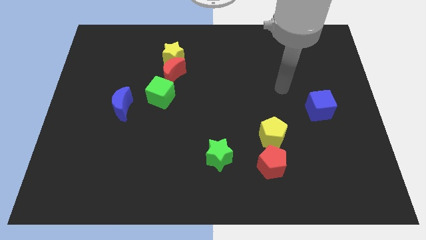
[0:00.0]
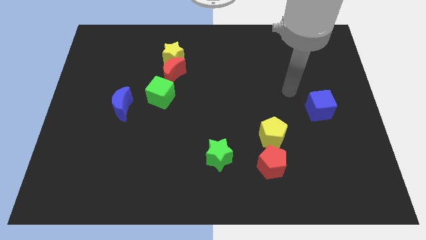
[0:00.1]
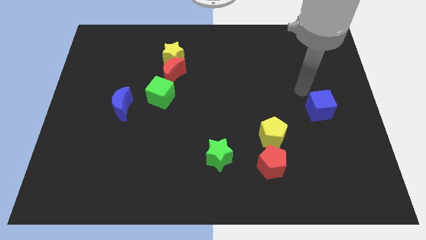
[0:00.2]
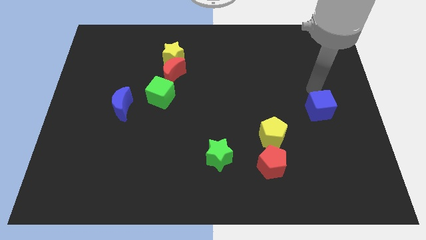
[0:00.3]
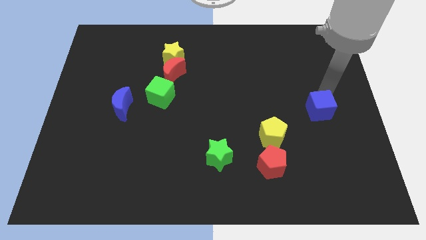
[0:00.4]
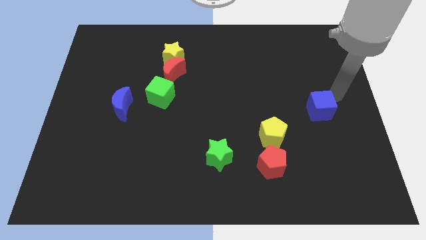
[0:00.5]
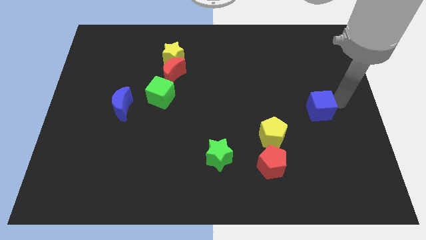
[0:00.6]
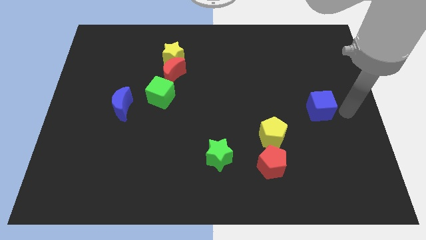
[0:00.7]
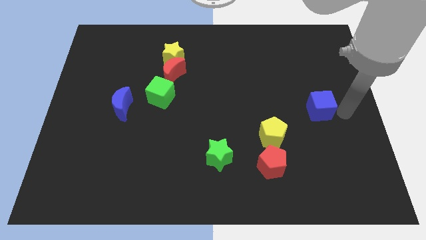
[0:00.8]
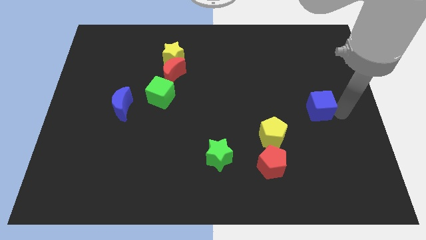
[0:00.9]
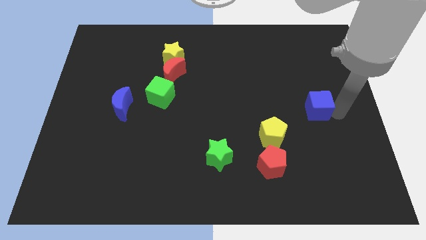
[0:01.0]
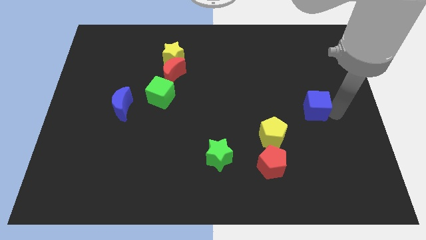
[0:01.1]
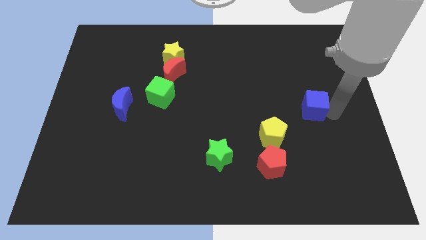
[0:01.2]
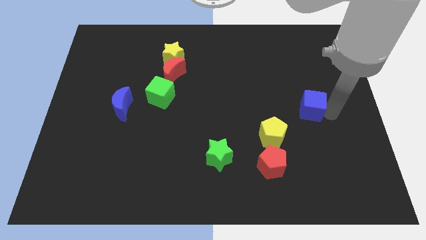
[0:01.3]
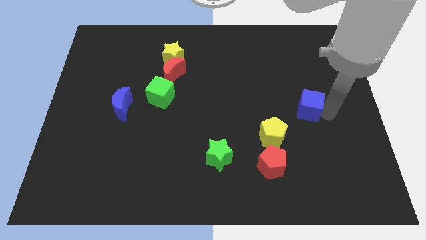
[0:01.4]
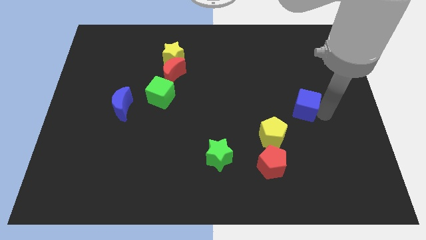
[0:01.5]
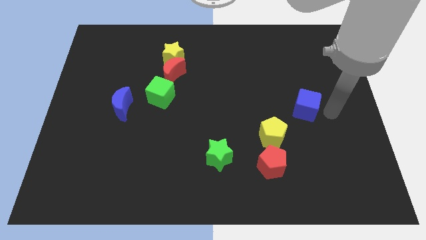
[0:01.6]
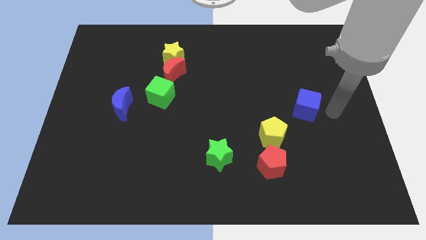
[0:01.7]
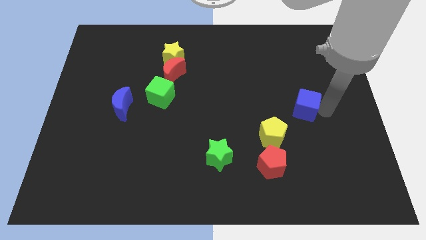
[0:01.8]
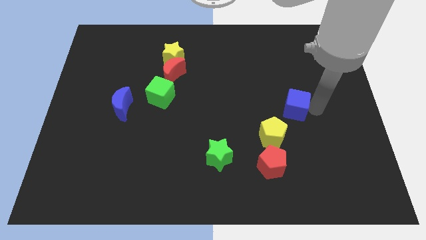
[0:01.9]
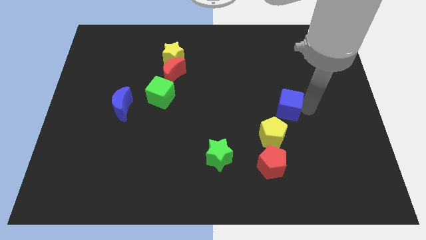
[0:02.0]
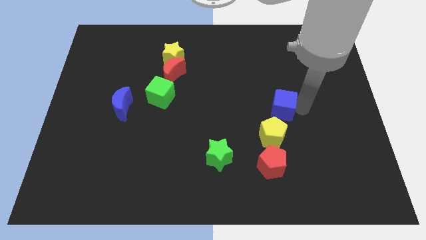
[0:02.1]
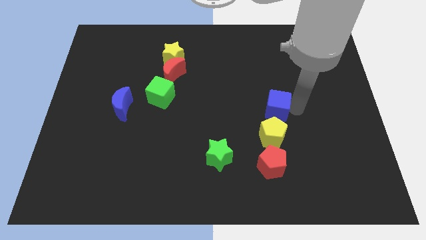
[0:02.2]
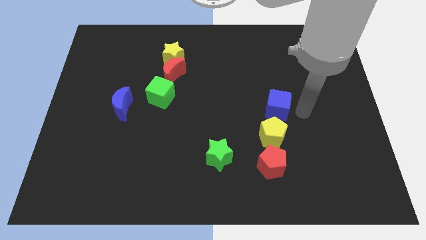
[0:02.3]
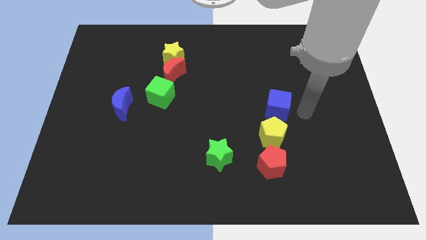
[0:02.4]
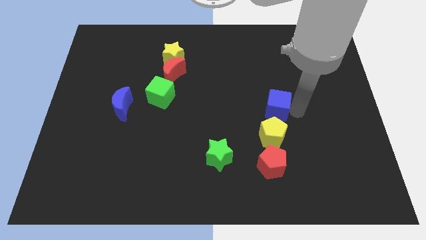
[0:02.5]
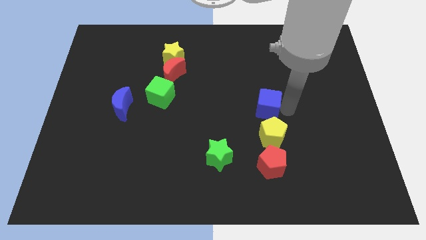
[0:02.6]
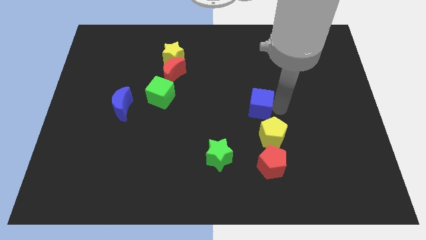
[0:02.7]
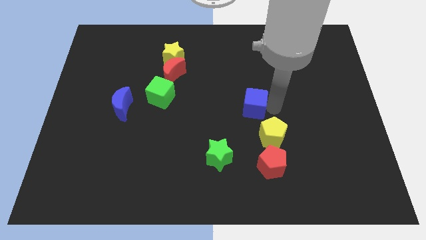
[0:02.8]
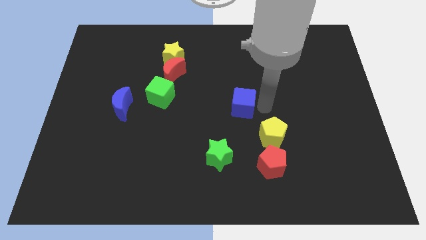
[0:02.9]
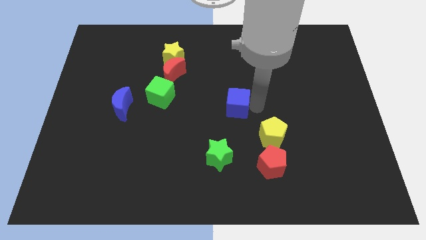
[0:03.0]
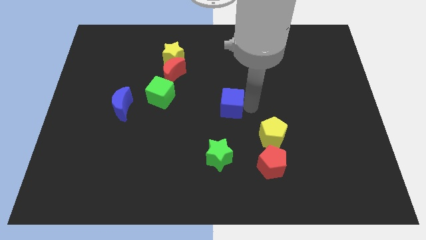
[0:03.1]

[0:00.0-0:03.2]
push the blue cube to the left

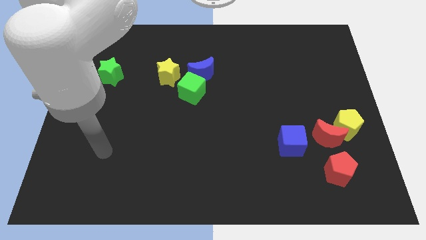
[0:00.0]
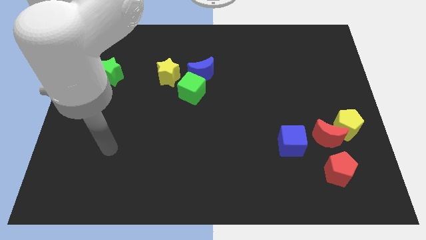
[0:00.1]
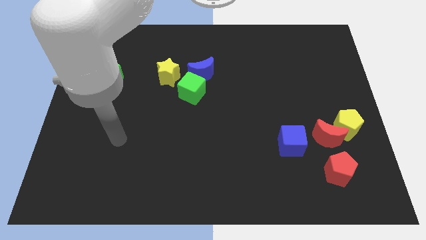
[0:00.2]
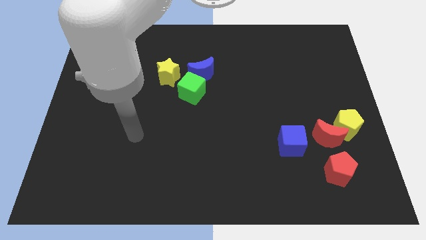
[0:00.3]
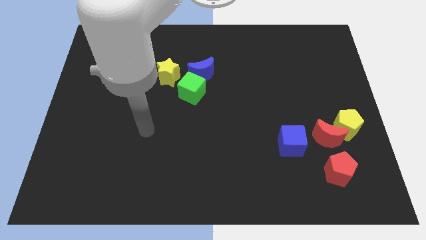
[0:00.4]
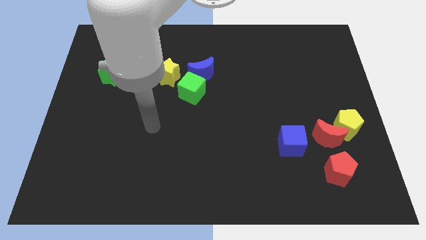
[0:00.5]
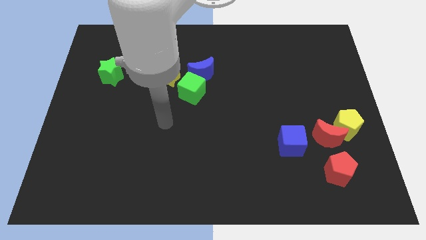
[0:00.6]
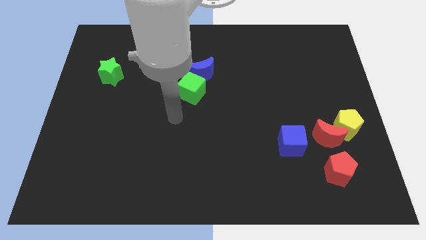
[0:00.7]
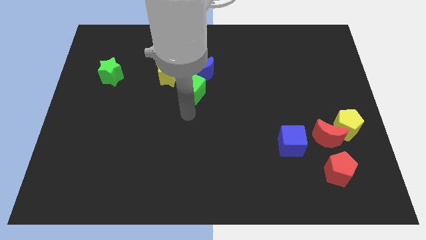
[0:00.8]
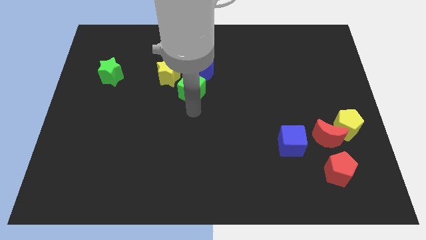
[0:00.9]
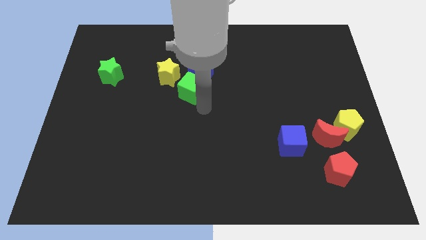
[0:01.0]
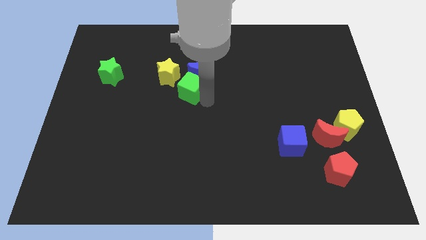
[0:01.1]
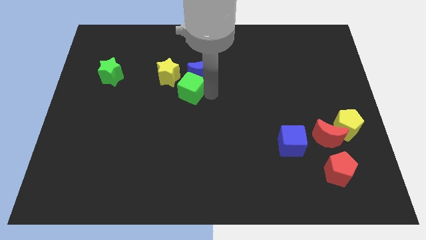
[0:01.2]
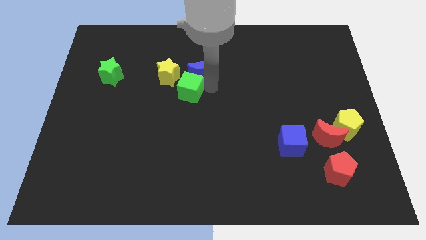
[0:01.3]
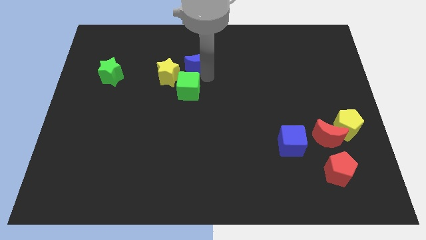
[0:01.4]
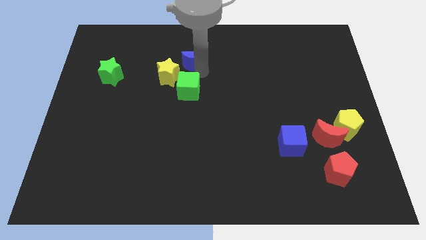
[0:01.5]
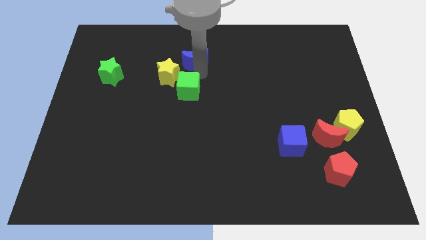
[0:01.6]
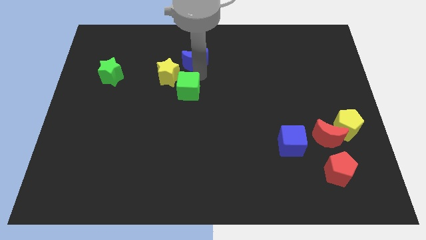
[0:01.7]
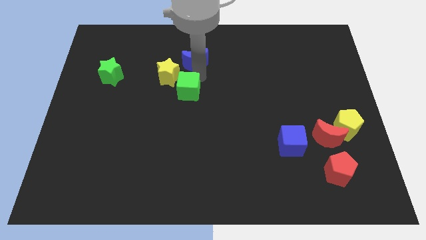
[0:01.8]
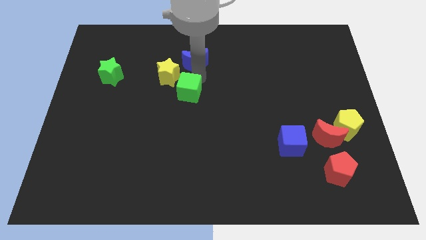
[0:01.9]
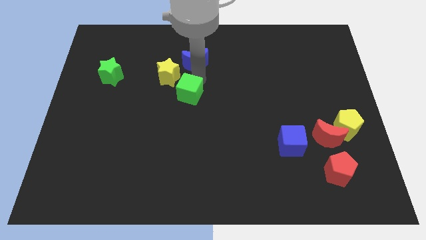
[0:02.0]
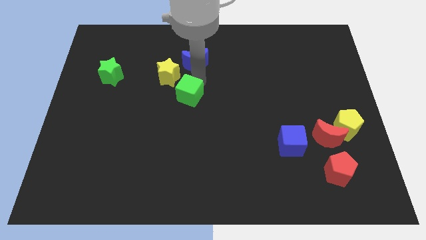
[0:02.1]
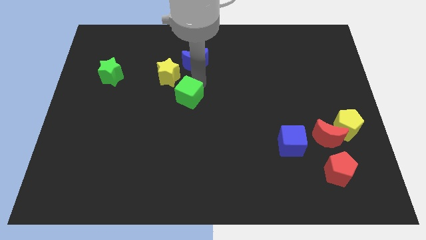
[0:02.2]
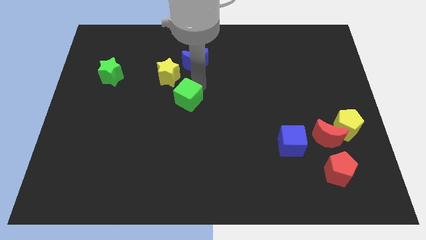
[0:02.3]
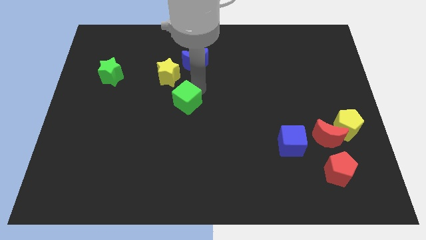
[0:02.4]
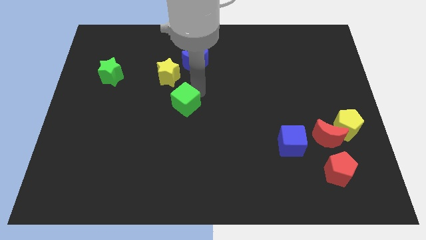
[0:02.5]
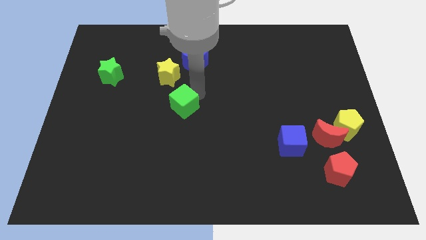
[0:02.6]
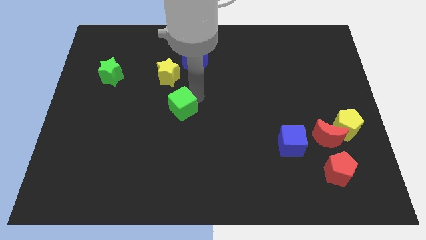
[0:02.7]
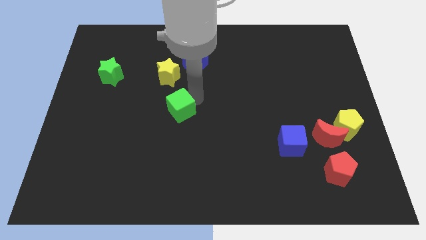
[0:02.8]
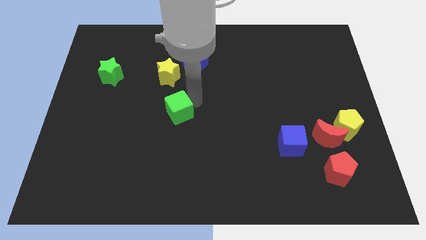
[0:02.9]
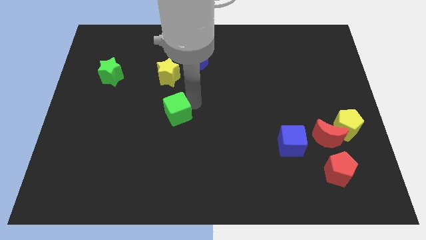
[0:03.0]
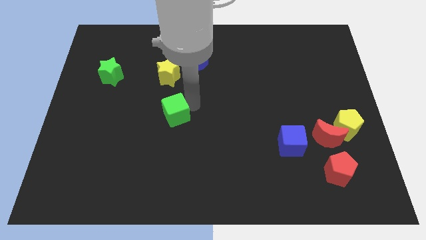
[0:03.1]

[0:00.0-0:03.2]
move the green cube downwards and to the left slightly

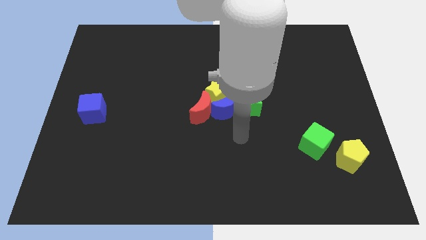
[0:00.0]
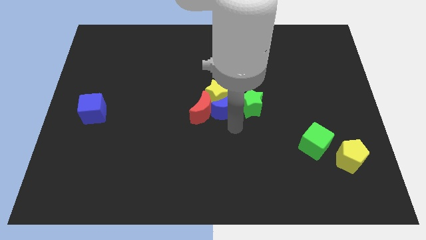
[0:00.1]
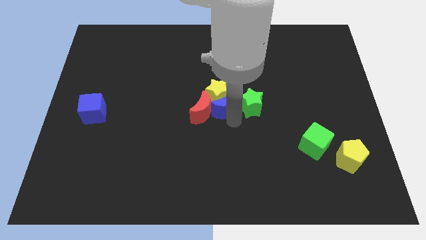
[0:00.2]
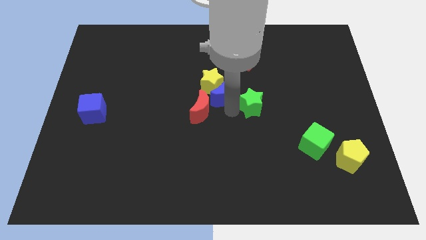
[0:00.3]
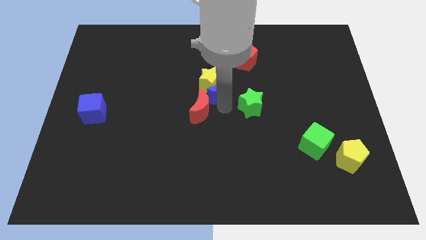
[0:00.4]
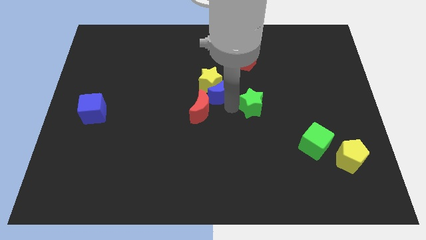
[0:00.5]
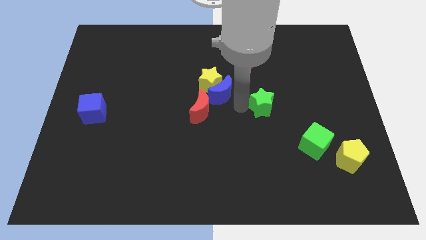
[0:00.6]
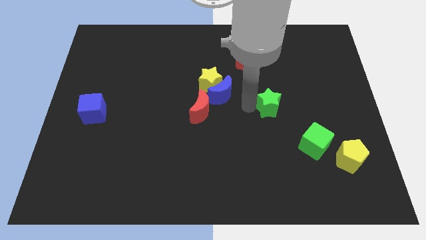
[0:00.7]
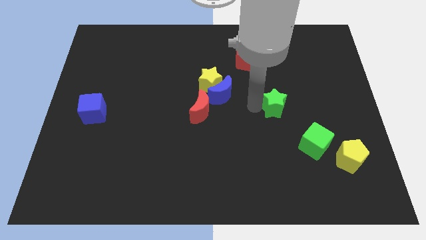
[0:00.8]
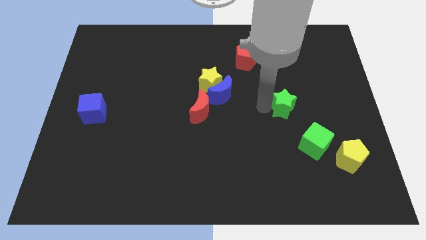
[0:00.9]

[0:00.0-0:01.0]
move the green star a little bit right

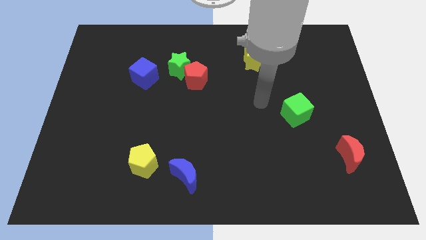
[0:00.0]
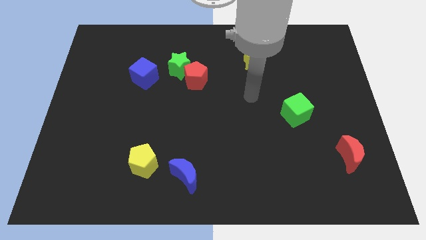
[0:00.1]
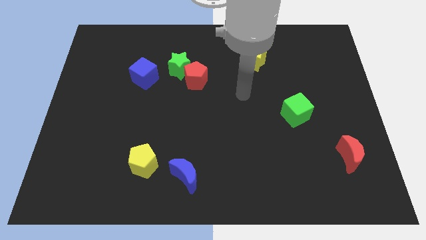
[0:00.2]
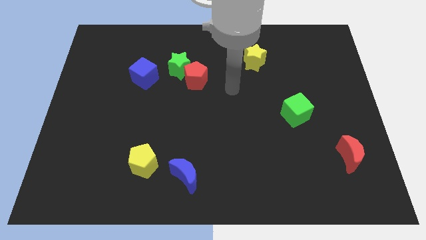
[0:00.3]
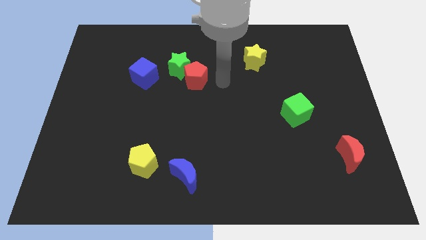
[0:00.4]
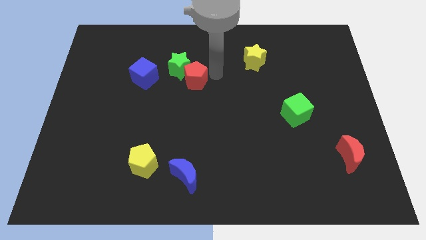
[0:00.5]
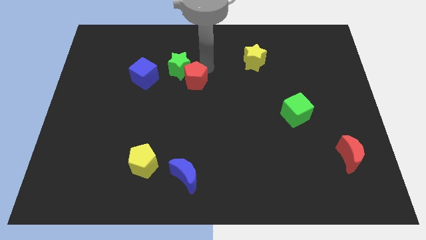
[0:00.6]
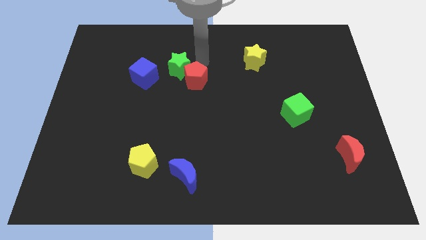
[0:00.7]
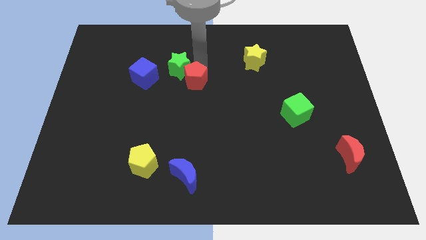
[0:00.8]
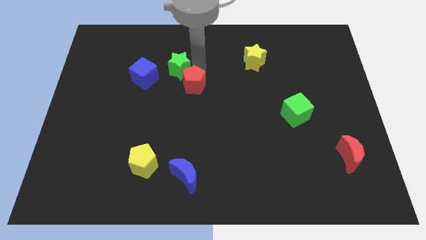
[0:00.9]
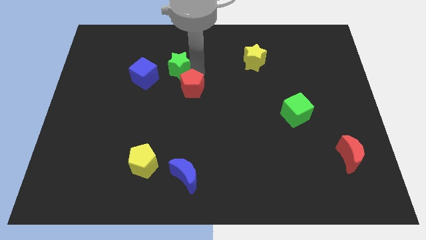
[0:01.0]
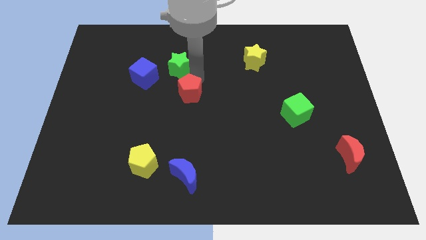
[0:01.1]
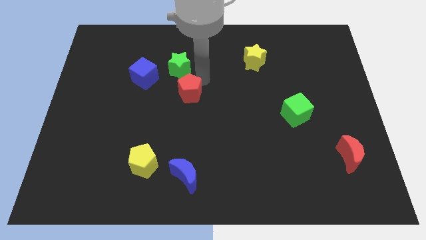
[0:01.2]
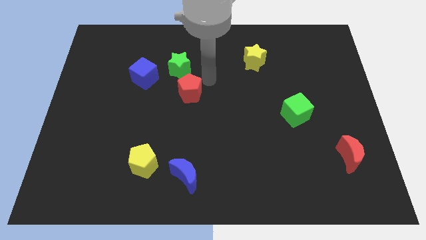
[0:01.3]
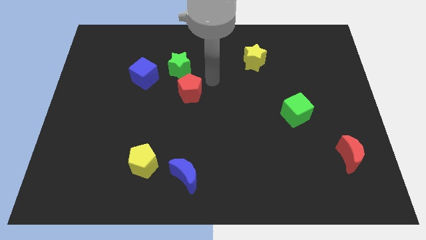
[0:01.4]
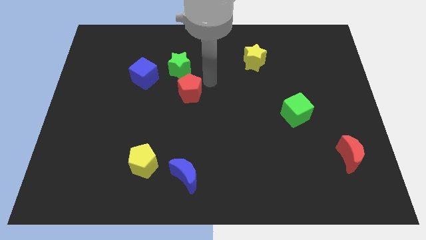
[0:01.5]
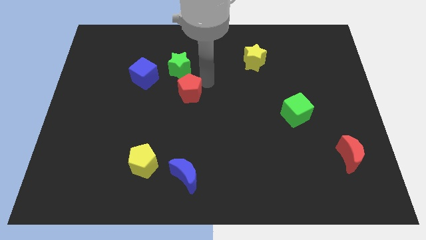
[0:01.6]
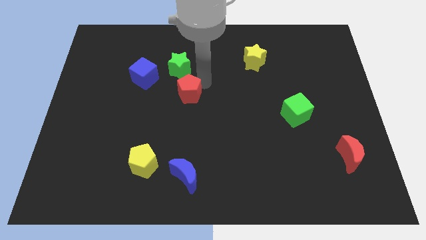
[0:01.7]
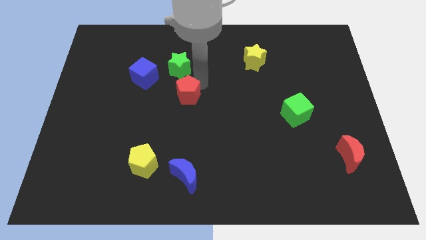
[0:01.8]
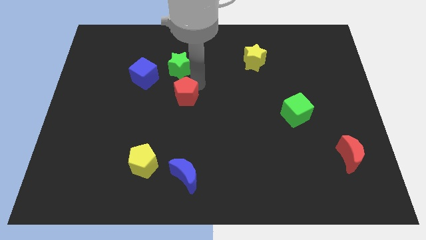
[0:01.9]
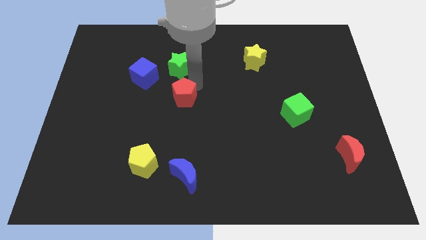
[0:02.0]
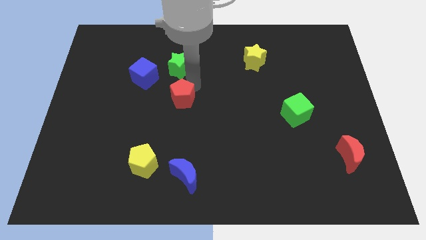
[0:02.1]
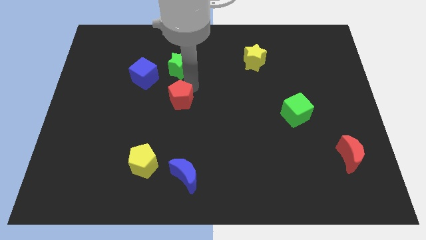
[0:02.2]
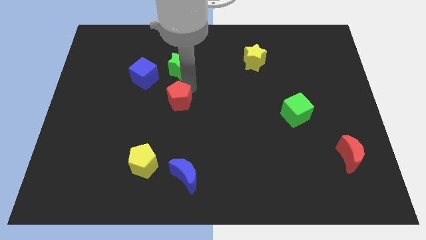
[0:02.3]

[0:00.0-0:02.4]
slightly slide the red pentagon diagonally down and to the left
